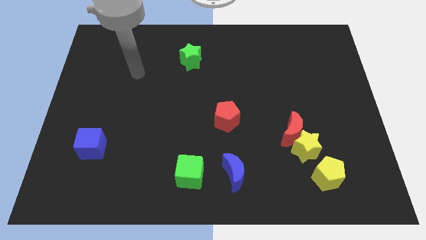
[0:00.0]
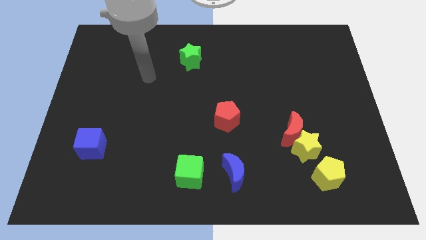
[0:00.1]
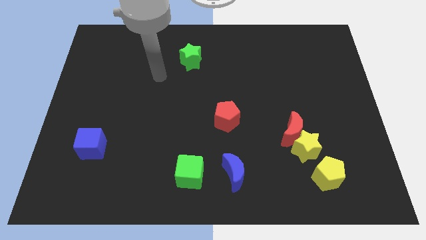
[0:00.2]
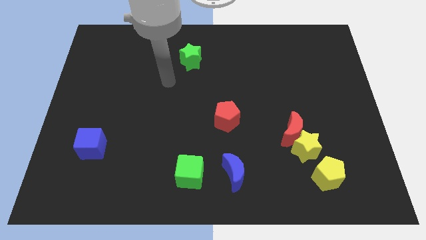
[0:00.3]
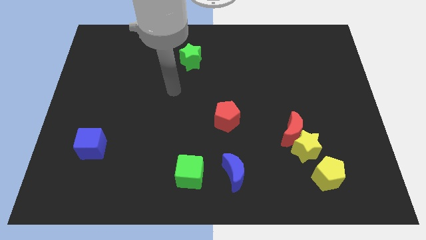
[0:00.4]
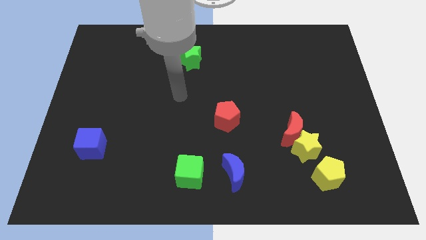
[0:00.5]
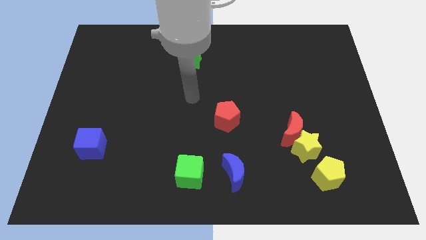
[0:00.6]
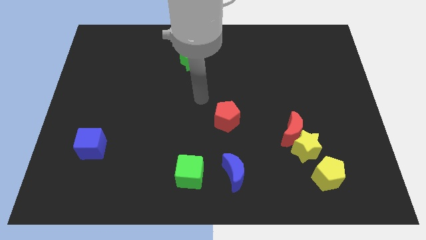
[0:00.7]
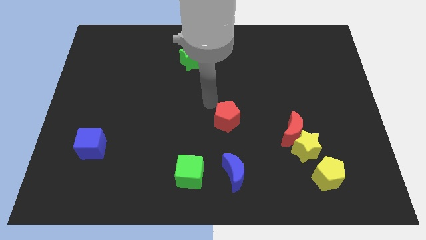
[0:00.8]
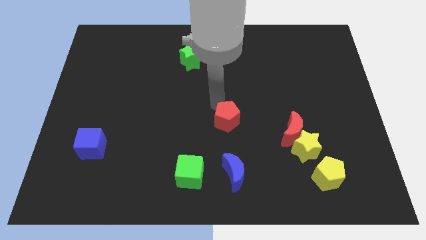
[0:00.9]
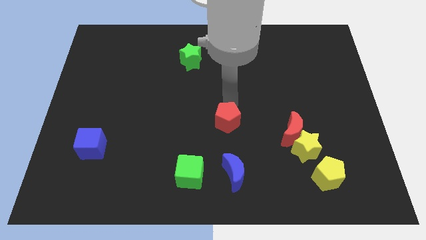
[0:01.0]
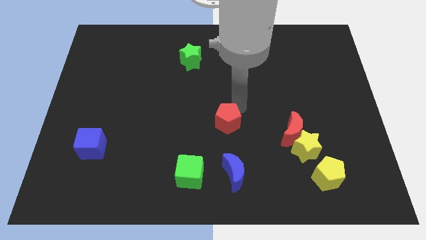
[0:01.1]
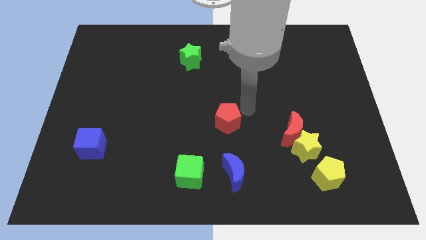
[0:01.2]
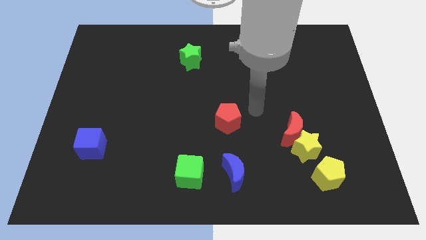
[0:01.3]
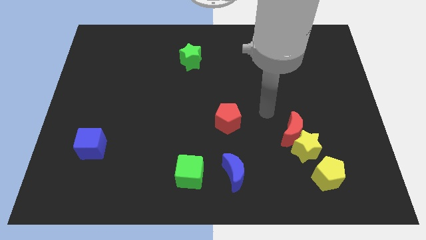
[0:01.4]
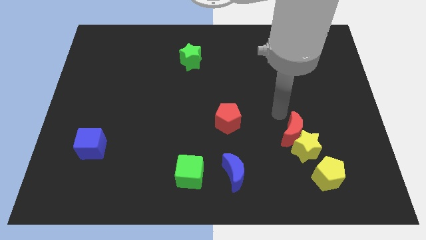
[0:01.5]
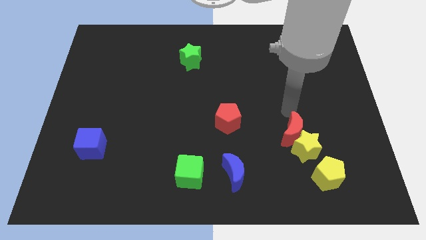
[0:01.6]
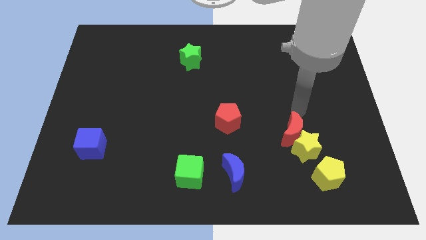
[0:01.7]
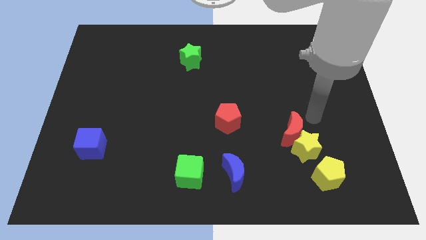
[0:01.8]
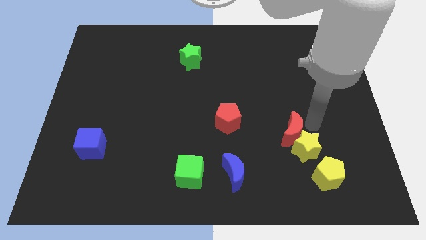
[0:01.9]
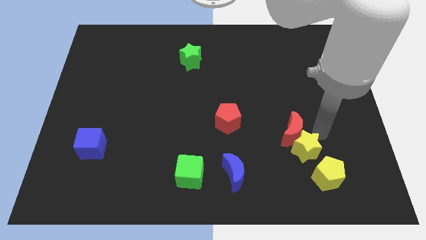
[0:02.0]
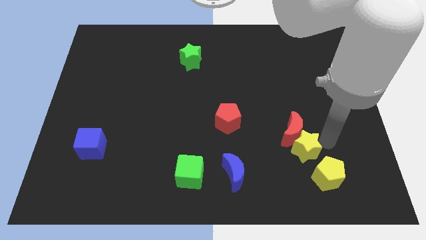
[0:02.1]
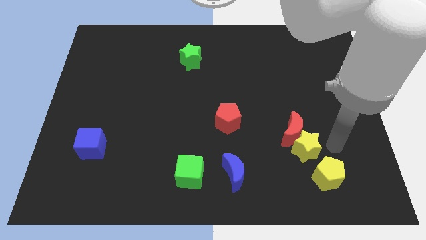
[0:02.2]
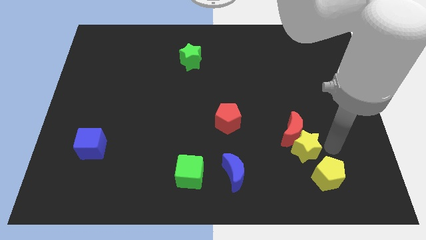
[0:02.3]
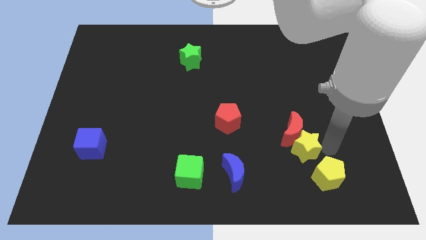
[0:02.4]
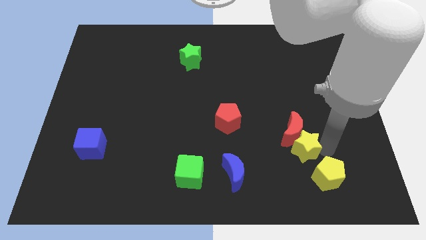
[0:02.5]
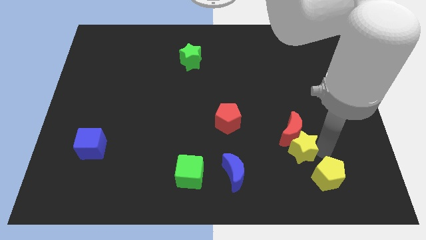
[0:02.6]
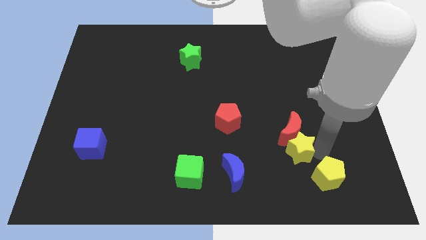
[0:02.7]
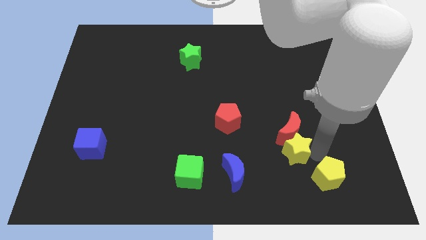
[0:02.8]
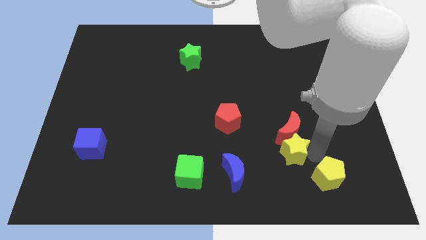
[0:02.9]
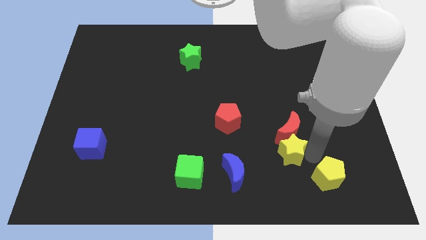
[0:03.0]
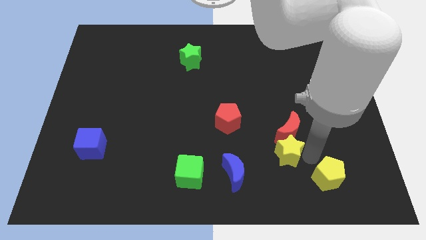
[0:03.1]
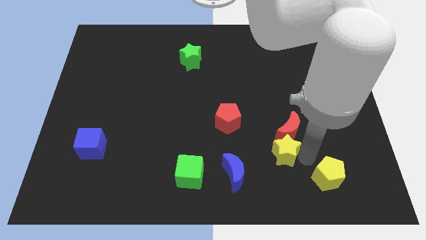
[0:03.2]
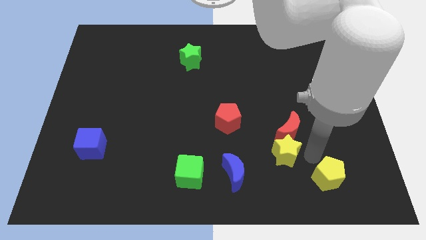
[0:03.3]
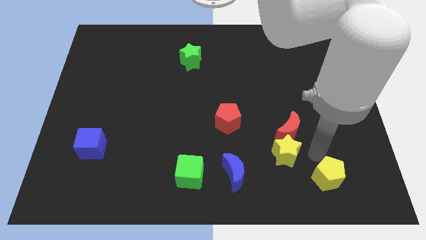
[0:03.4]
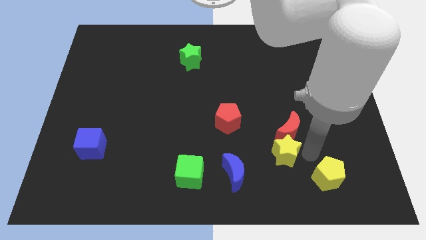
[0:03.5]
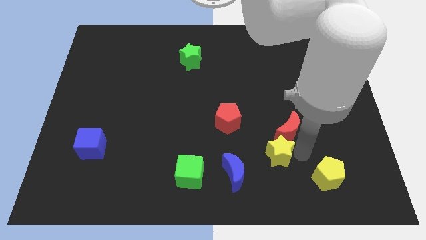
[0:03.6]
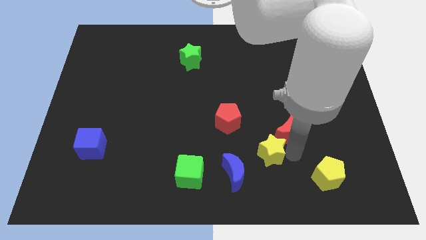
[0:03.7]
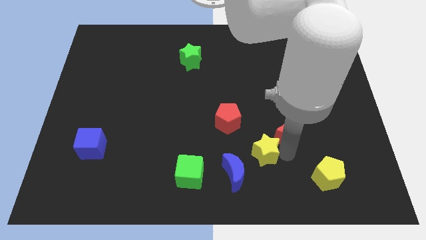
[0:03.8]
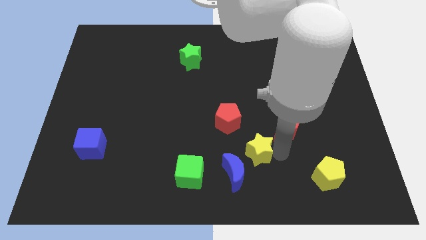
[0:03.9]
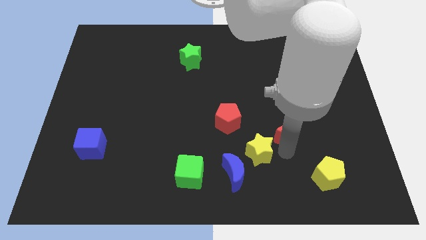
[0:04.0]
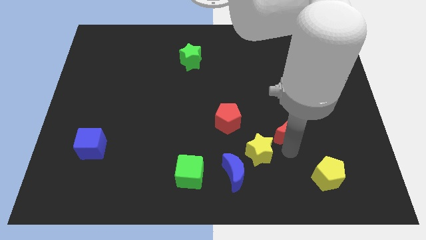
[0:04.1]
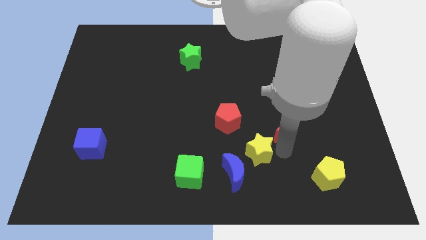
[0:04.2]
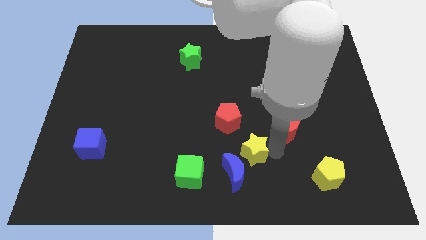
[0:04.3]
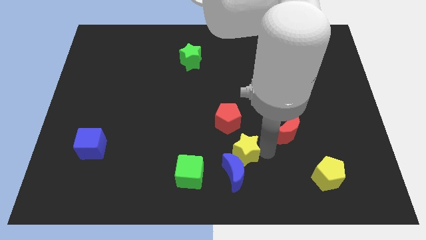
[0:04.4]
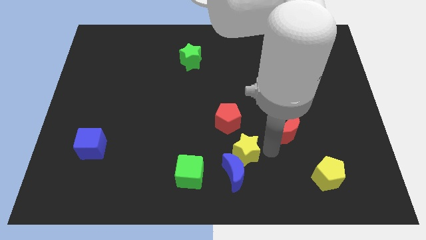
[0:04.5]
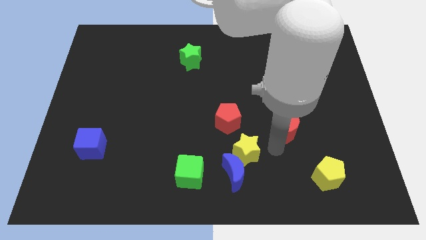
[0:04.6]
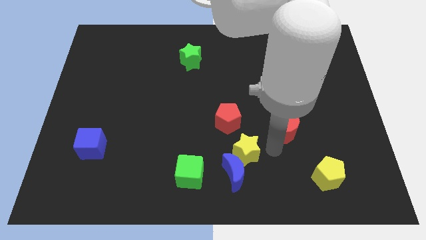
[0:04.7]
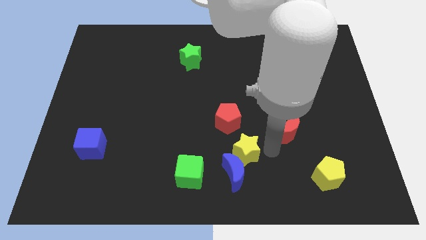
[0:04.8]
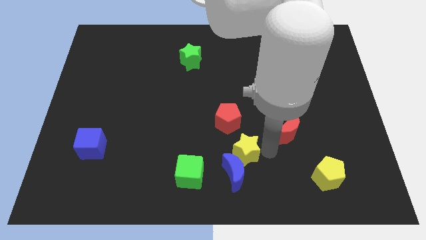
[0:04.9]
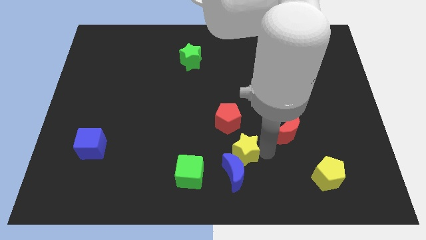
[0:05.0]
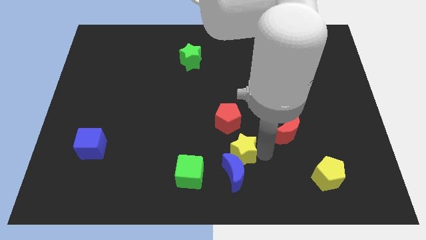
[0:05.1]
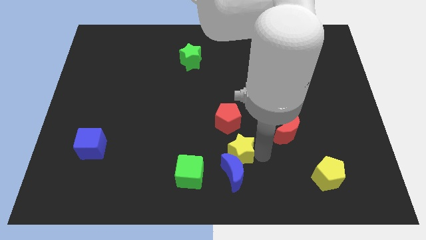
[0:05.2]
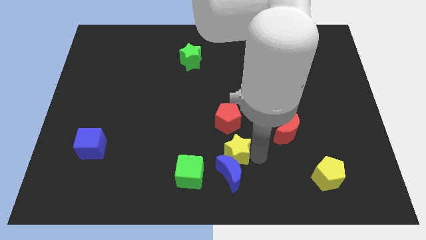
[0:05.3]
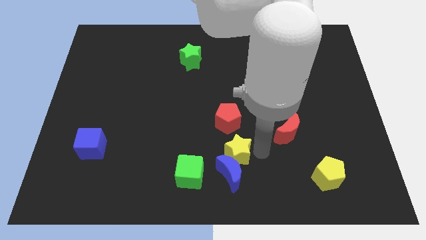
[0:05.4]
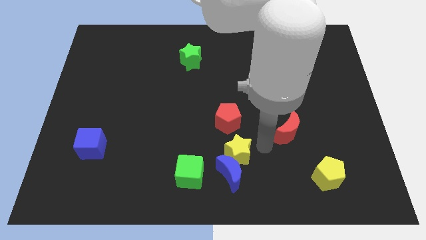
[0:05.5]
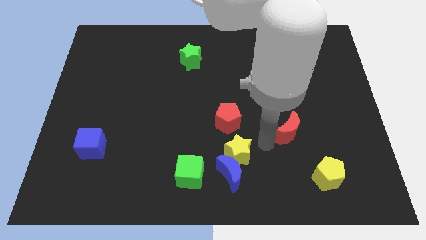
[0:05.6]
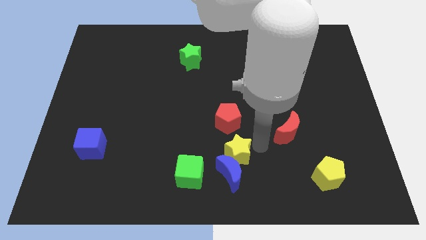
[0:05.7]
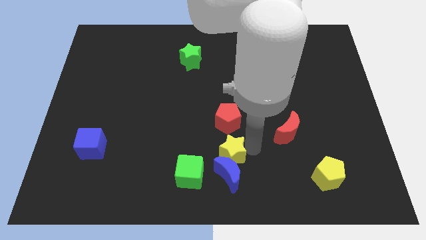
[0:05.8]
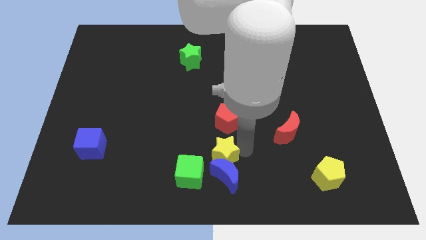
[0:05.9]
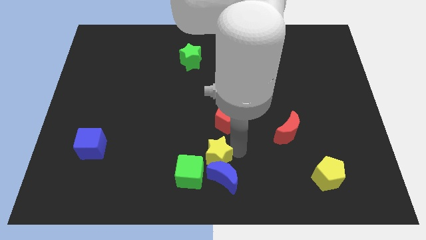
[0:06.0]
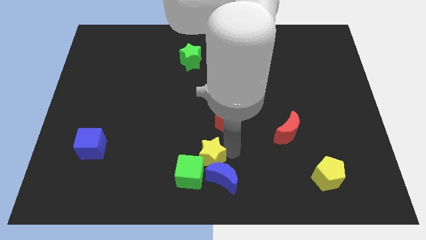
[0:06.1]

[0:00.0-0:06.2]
move the yellow star to the green cube

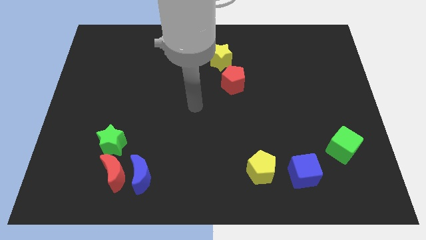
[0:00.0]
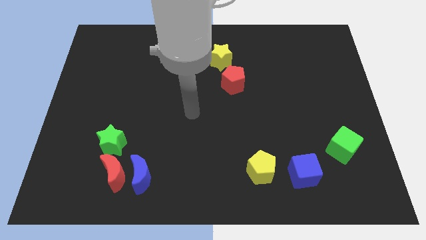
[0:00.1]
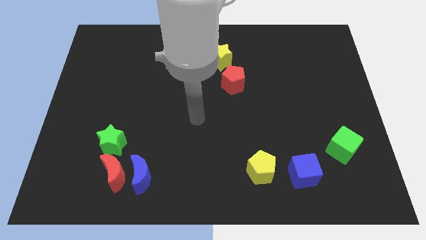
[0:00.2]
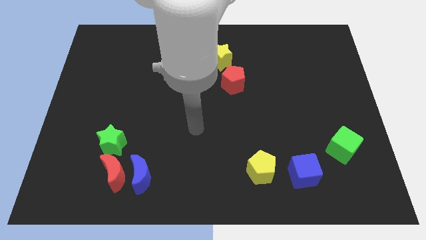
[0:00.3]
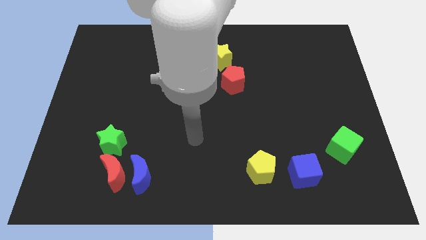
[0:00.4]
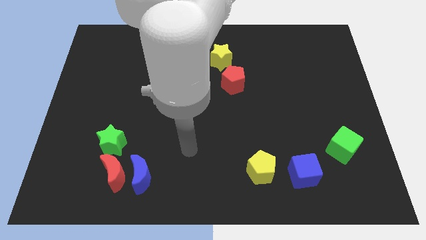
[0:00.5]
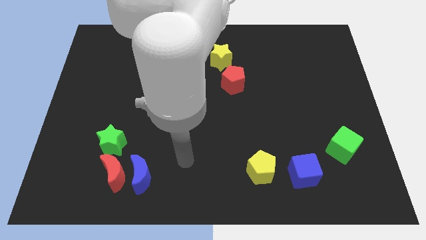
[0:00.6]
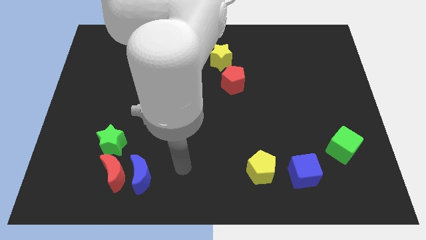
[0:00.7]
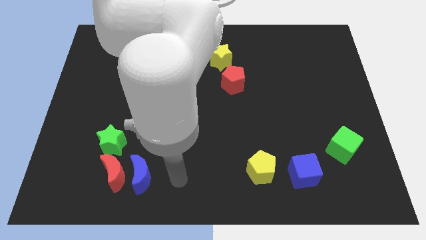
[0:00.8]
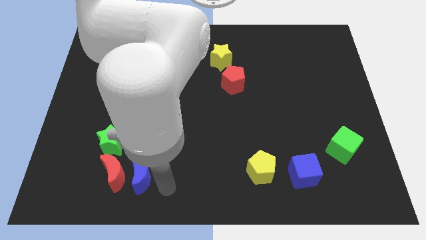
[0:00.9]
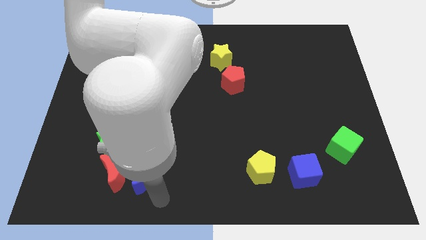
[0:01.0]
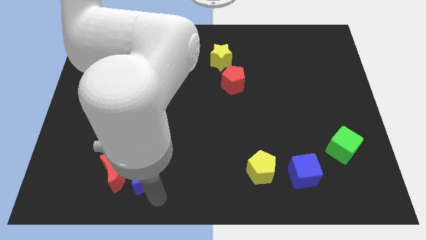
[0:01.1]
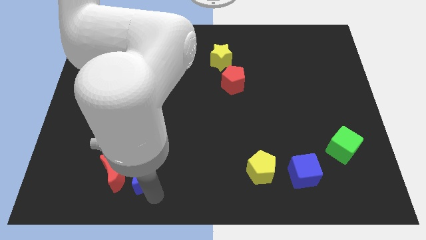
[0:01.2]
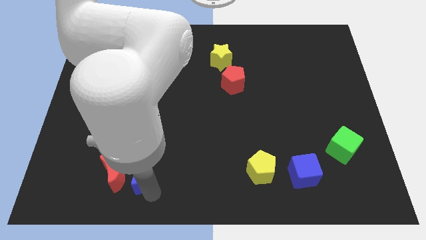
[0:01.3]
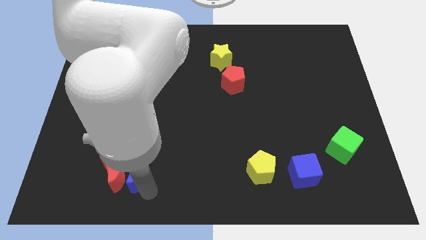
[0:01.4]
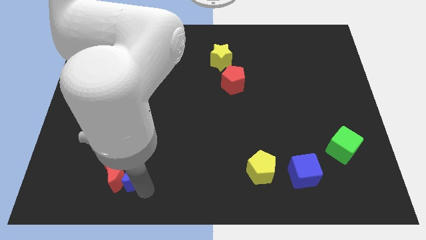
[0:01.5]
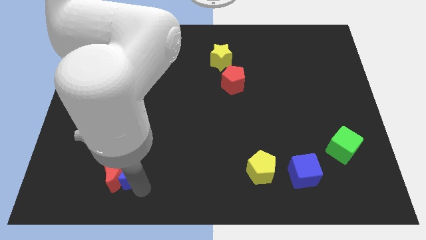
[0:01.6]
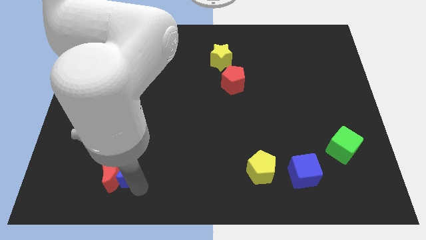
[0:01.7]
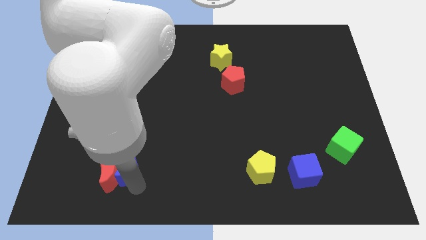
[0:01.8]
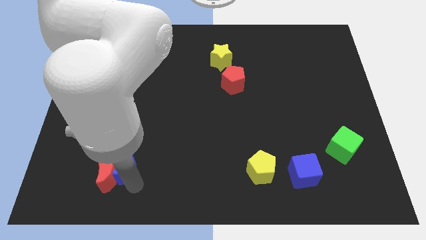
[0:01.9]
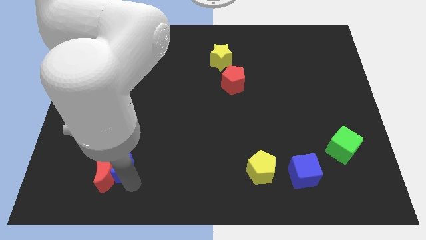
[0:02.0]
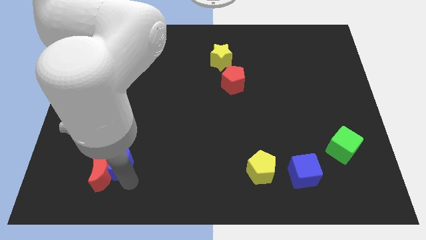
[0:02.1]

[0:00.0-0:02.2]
put the blue moon next to the green star
